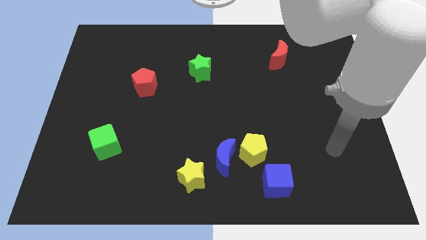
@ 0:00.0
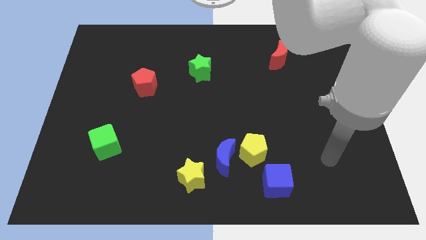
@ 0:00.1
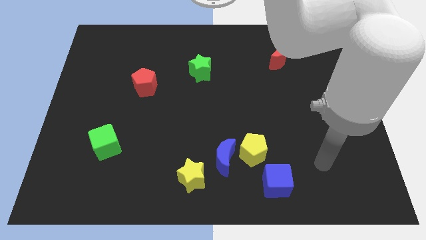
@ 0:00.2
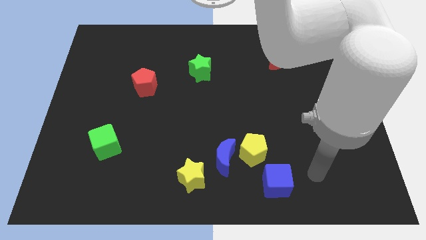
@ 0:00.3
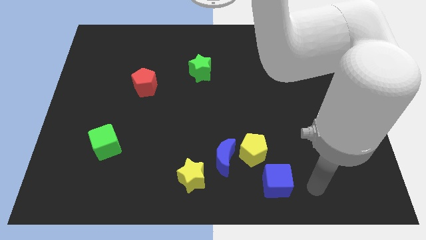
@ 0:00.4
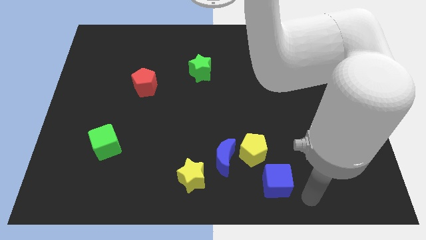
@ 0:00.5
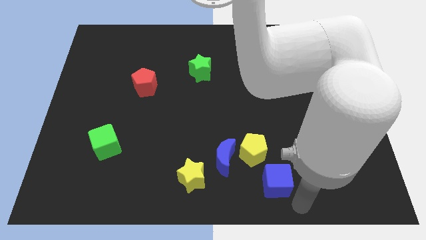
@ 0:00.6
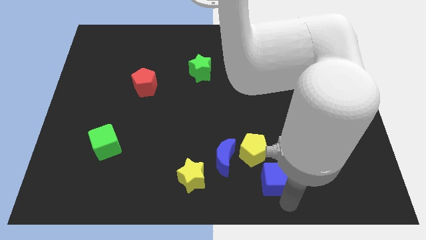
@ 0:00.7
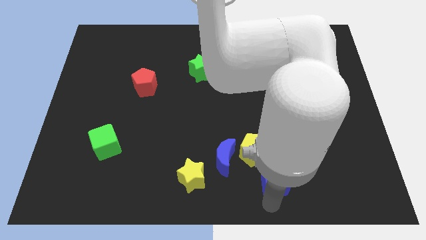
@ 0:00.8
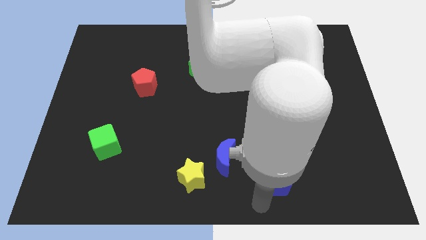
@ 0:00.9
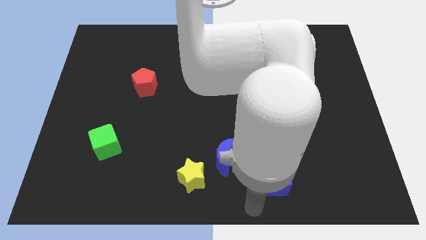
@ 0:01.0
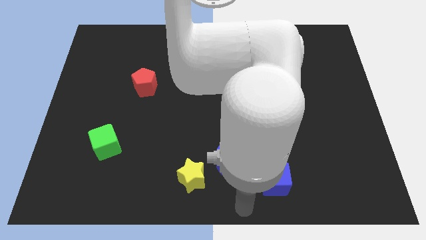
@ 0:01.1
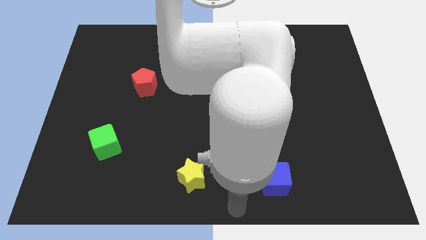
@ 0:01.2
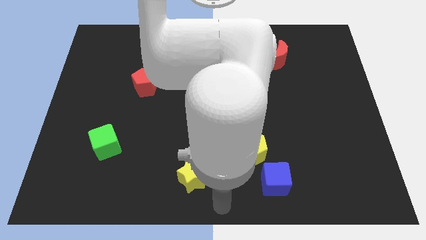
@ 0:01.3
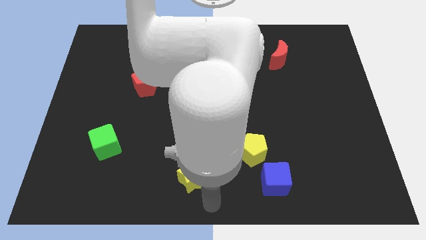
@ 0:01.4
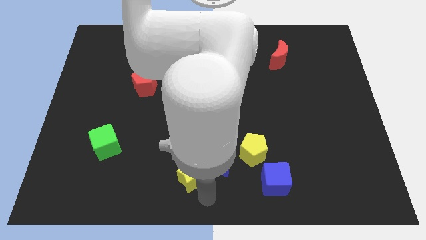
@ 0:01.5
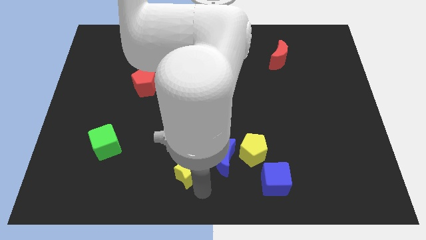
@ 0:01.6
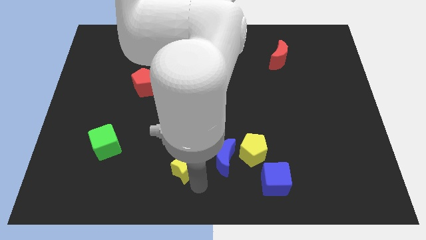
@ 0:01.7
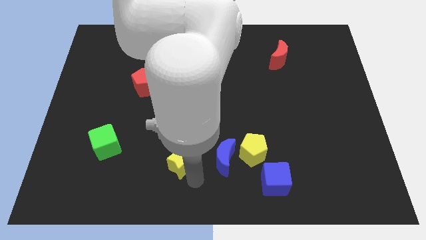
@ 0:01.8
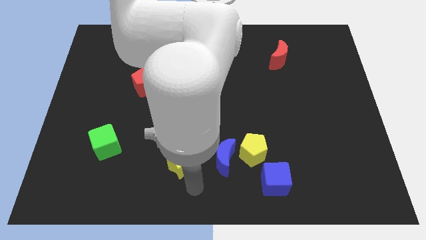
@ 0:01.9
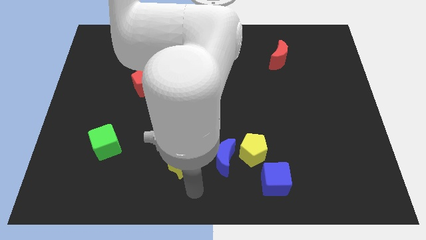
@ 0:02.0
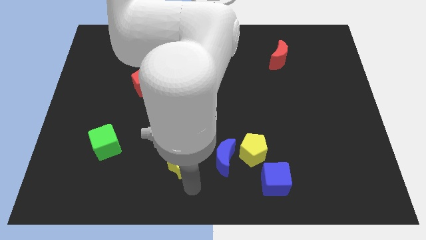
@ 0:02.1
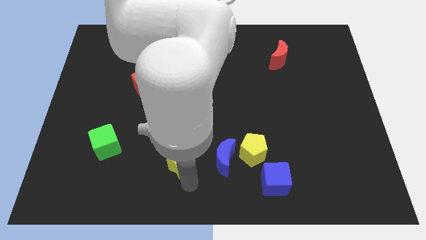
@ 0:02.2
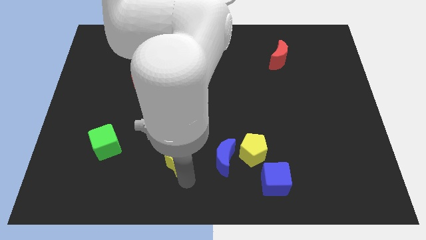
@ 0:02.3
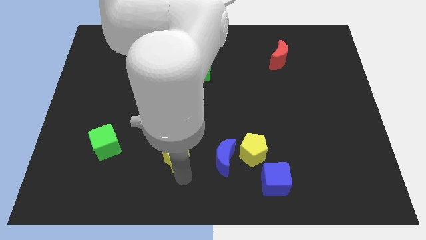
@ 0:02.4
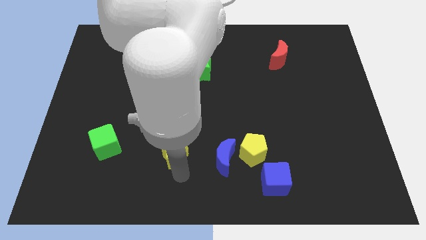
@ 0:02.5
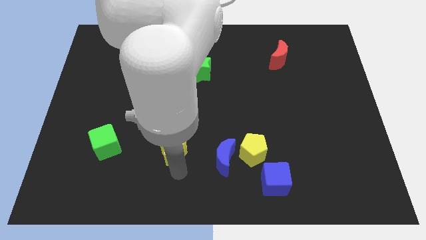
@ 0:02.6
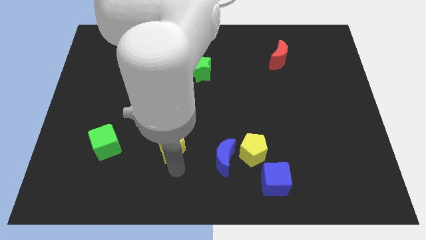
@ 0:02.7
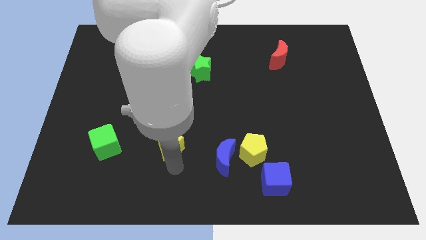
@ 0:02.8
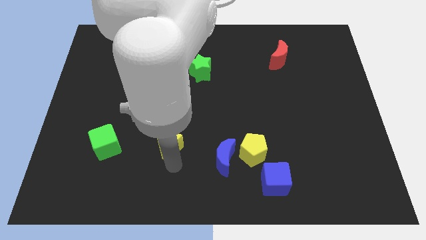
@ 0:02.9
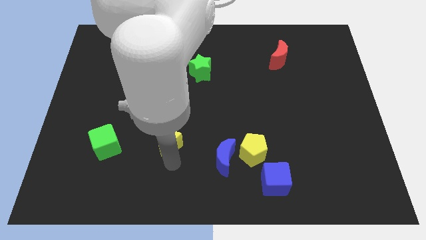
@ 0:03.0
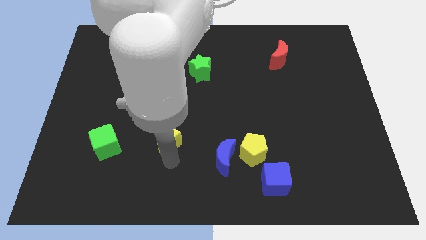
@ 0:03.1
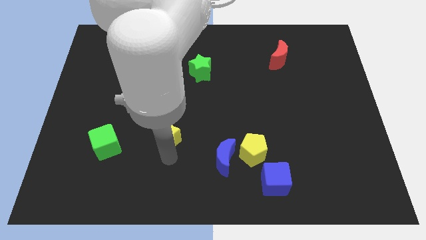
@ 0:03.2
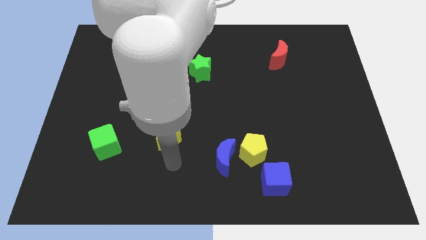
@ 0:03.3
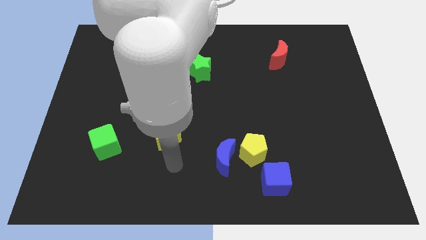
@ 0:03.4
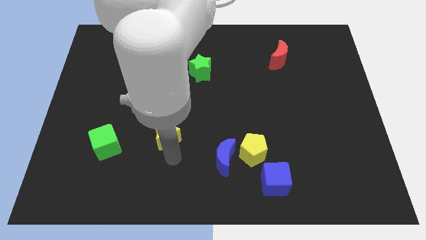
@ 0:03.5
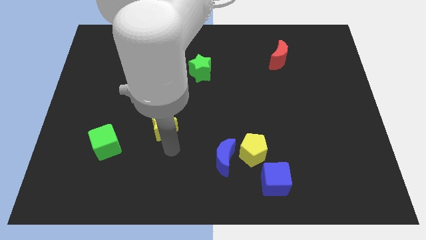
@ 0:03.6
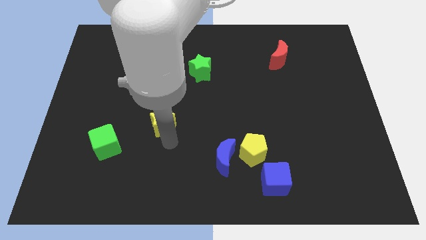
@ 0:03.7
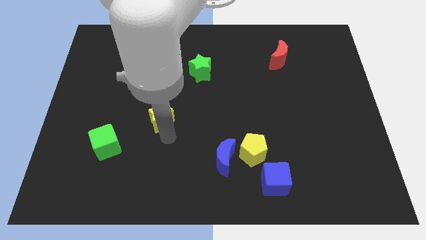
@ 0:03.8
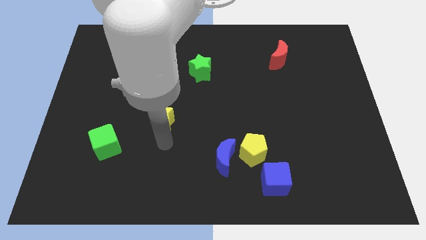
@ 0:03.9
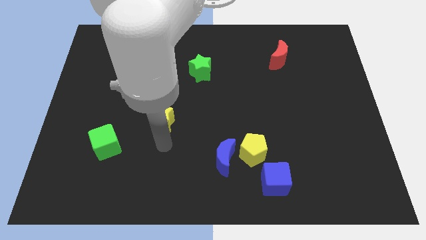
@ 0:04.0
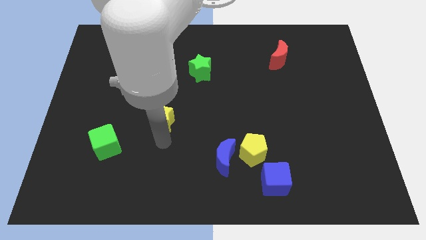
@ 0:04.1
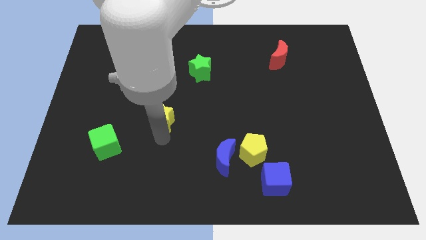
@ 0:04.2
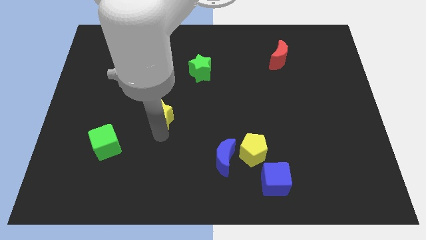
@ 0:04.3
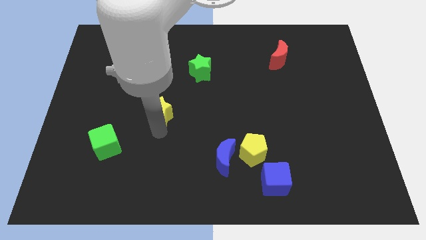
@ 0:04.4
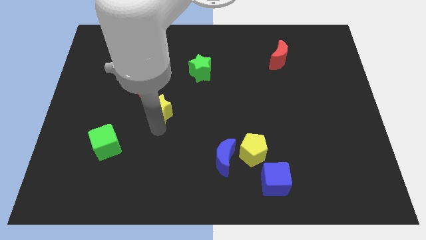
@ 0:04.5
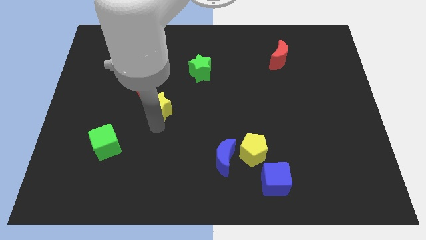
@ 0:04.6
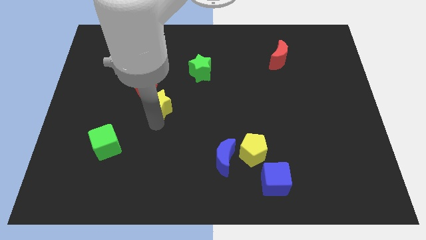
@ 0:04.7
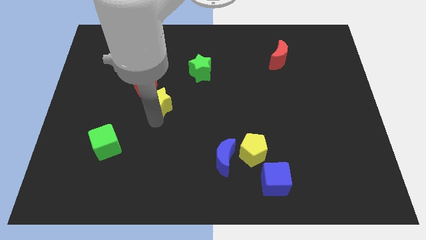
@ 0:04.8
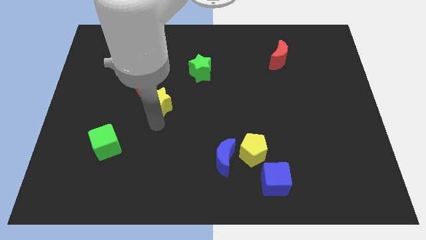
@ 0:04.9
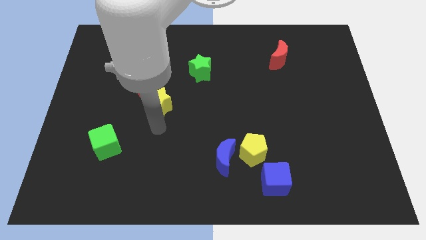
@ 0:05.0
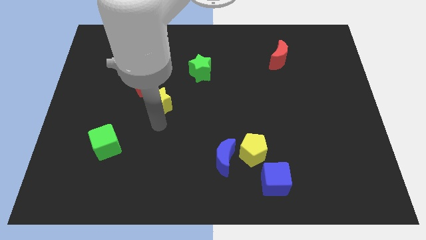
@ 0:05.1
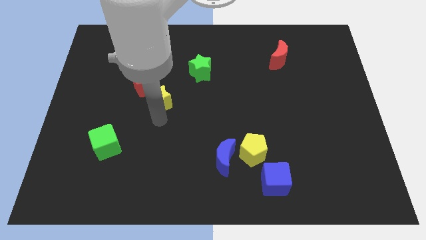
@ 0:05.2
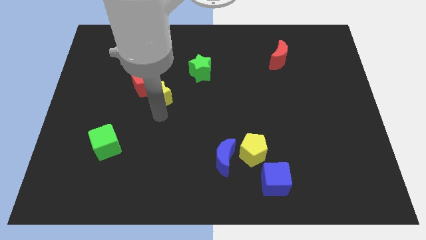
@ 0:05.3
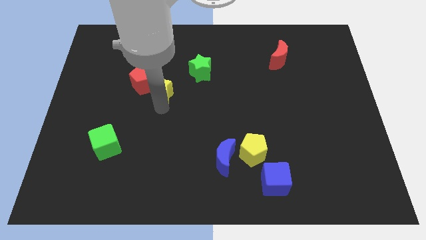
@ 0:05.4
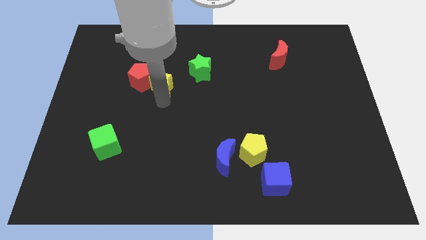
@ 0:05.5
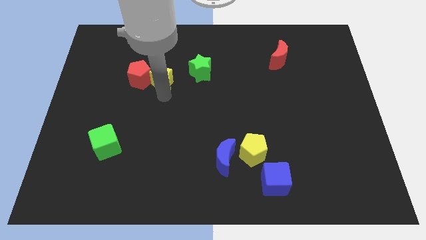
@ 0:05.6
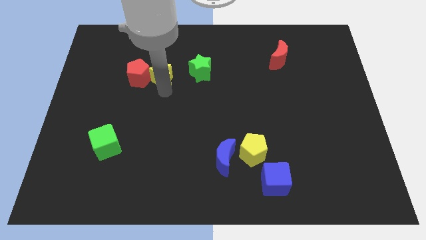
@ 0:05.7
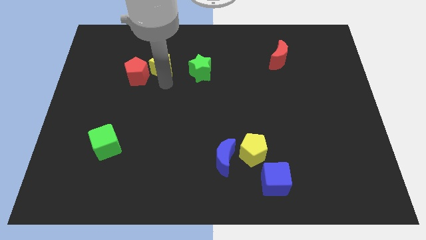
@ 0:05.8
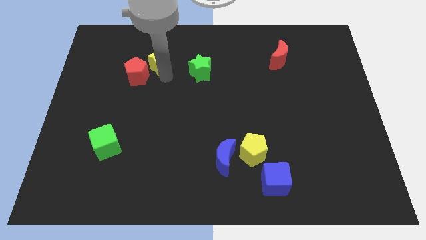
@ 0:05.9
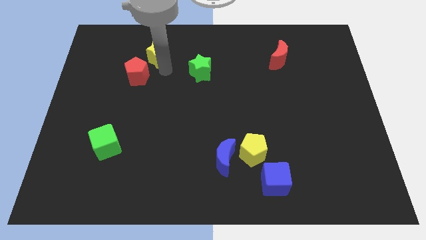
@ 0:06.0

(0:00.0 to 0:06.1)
push the yellow star above the red pentagon

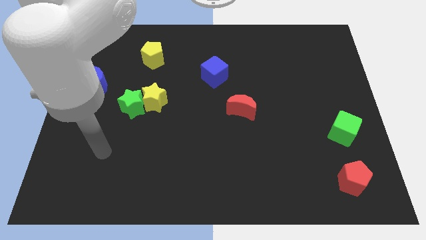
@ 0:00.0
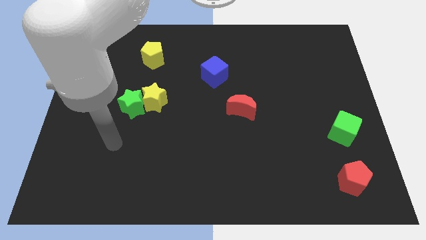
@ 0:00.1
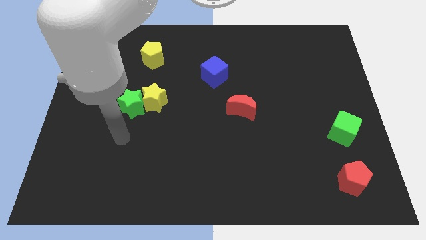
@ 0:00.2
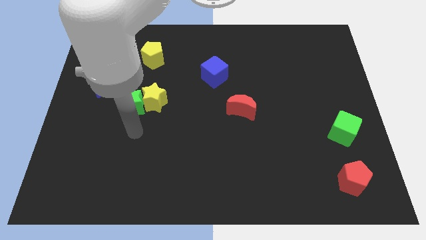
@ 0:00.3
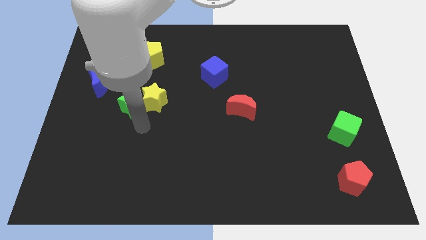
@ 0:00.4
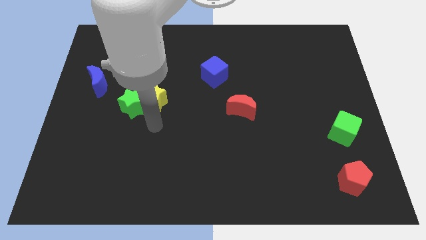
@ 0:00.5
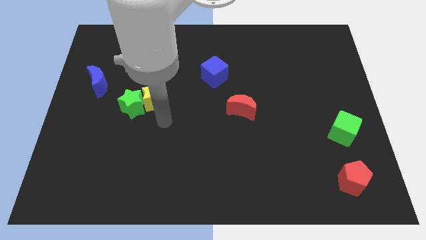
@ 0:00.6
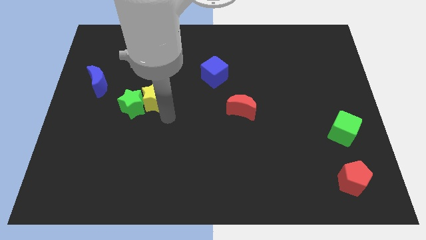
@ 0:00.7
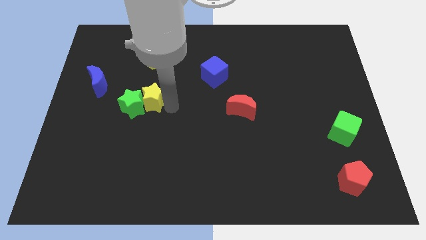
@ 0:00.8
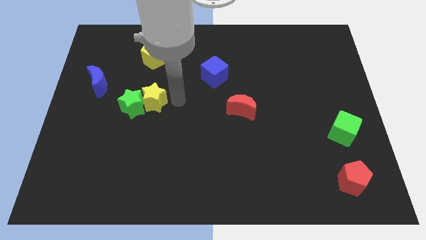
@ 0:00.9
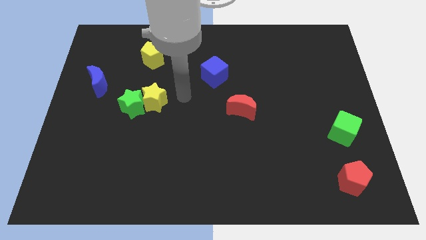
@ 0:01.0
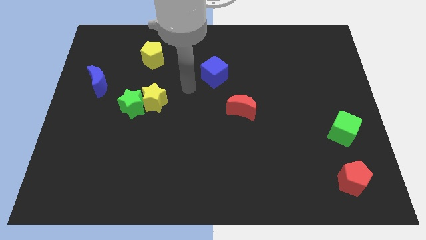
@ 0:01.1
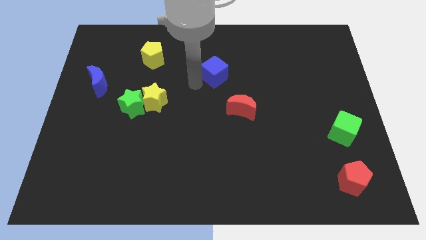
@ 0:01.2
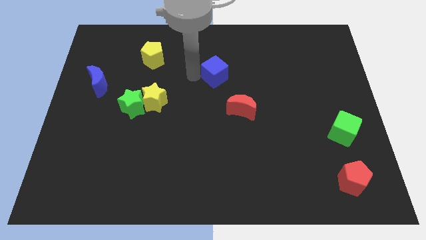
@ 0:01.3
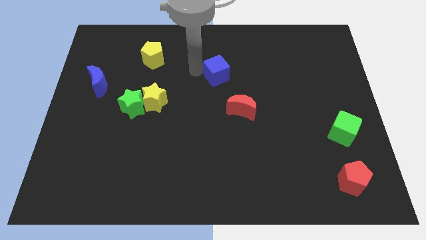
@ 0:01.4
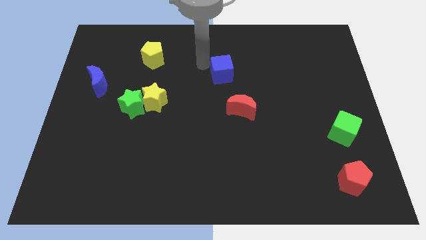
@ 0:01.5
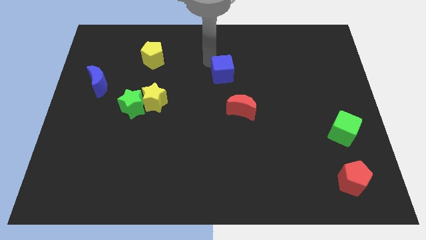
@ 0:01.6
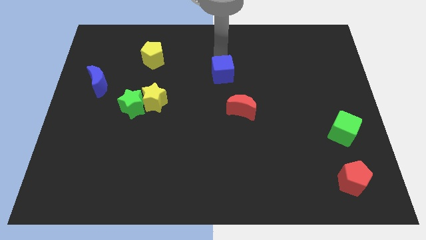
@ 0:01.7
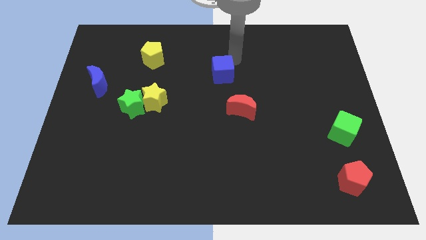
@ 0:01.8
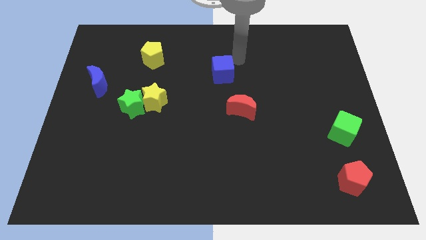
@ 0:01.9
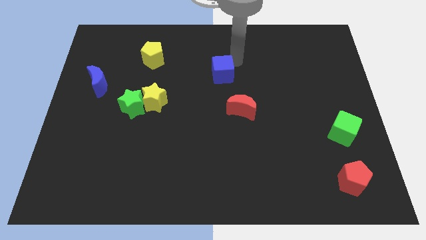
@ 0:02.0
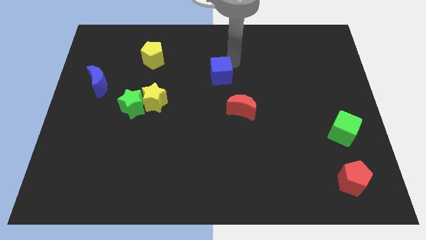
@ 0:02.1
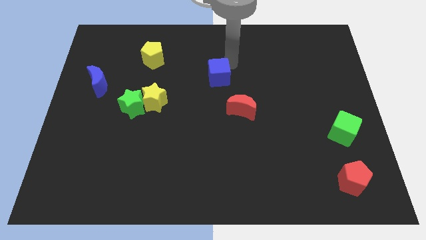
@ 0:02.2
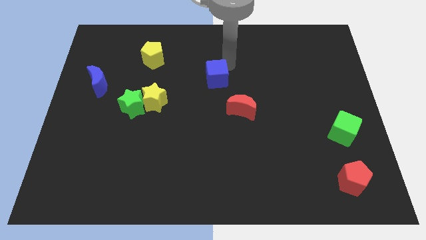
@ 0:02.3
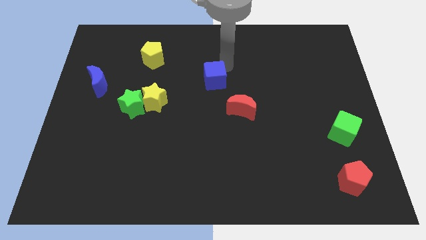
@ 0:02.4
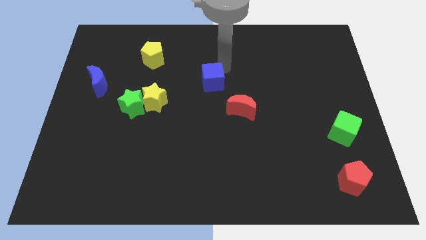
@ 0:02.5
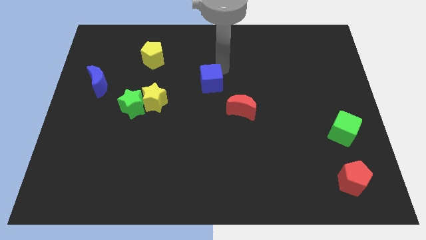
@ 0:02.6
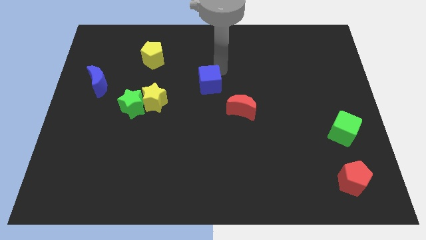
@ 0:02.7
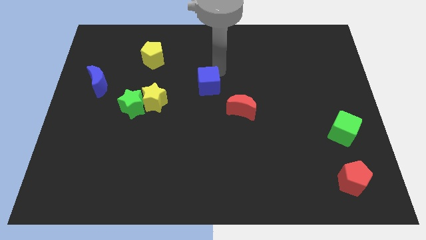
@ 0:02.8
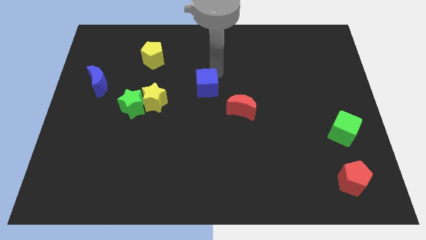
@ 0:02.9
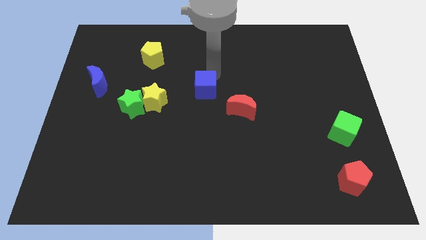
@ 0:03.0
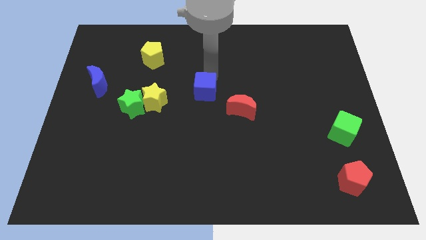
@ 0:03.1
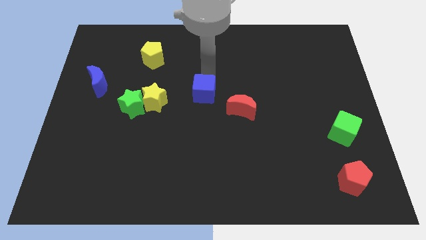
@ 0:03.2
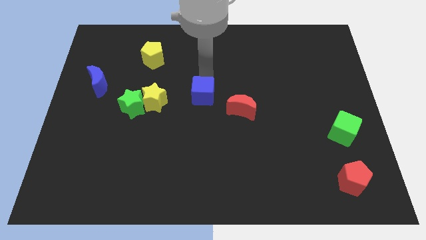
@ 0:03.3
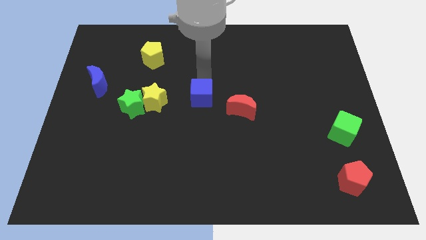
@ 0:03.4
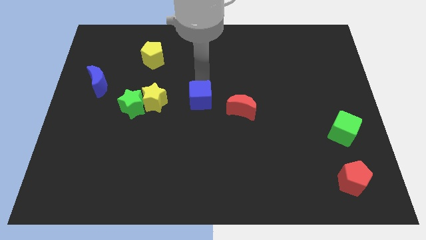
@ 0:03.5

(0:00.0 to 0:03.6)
slide the blue cube right of the green star
